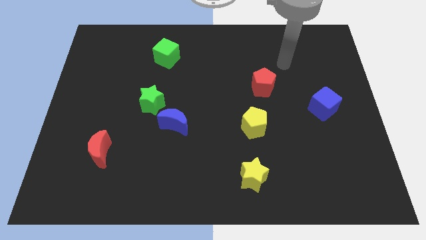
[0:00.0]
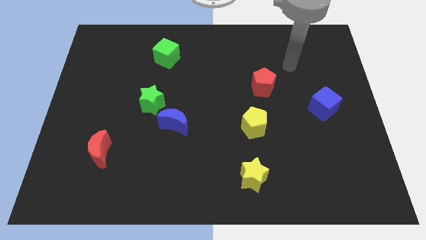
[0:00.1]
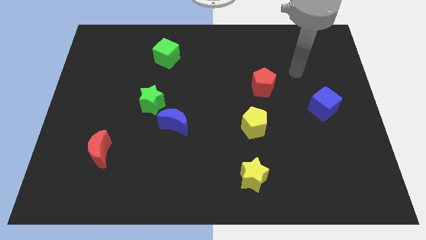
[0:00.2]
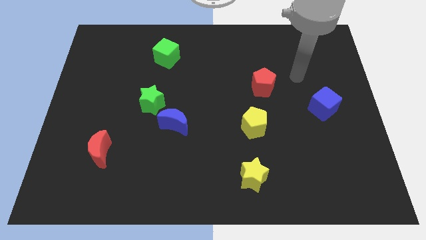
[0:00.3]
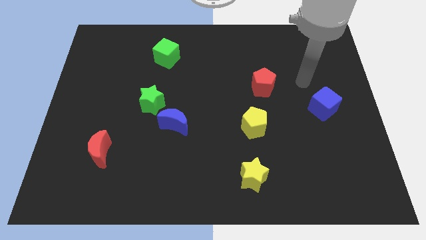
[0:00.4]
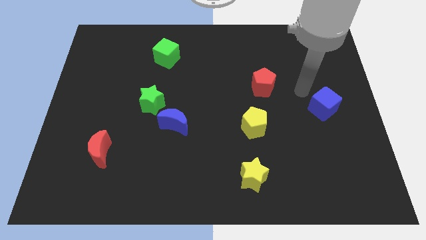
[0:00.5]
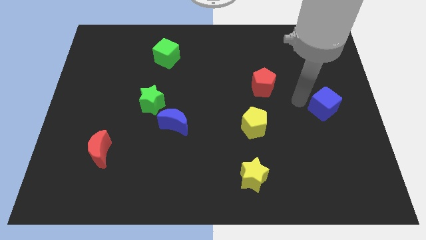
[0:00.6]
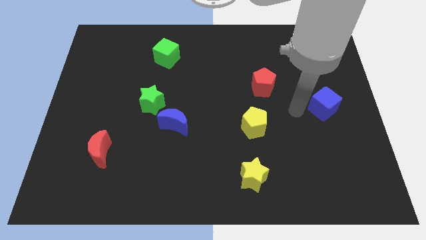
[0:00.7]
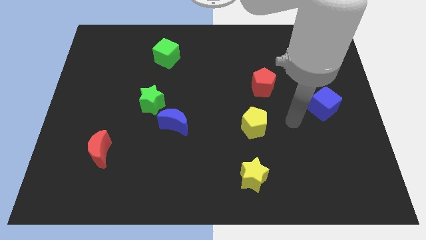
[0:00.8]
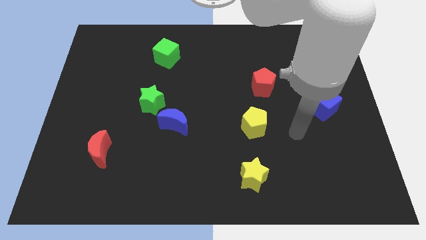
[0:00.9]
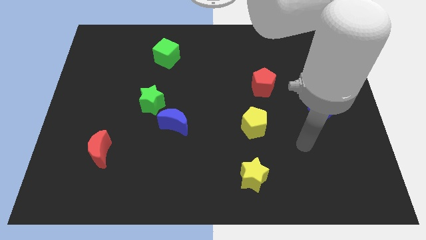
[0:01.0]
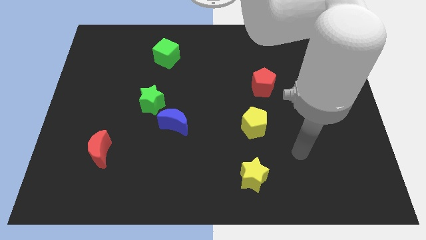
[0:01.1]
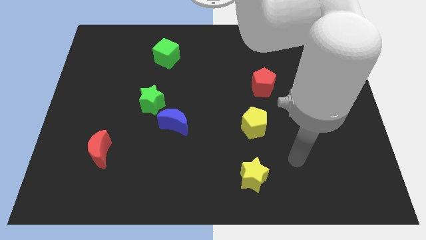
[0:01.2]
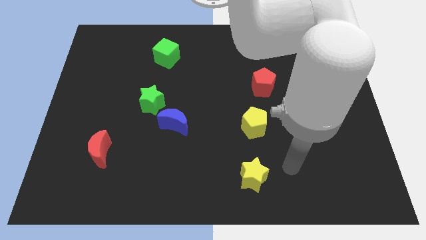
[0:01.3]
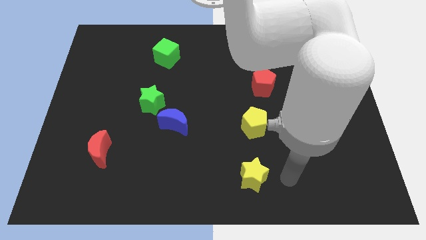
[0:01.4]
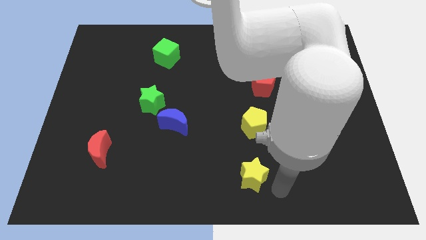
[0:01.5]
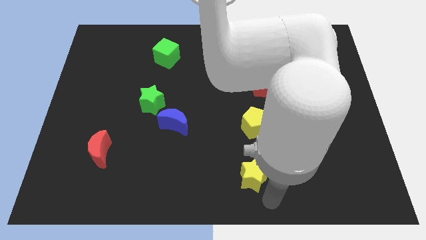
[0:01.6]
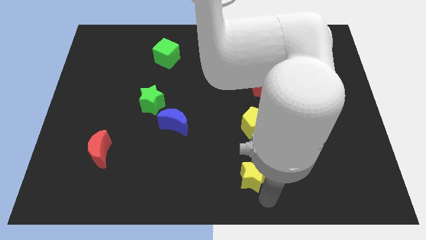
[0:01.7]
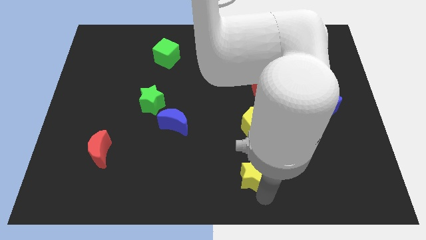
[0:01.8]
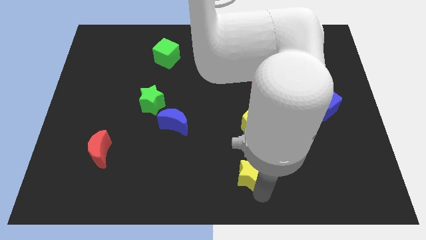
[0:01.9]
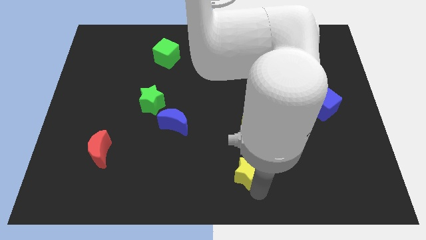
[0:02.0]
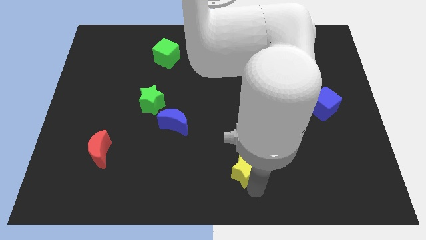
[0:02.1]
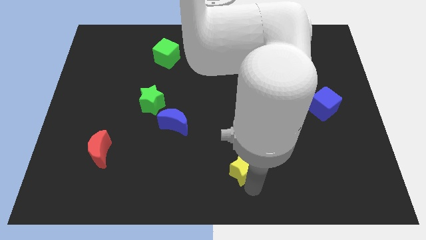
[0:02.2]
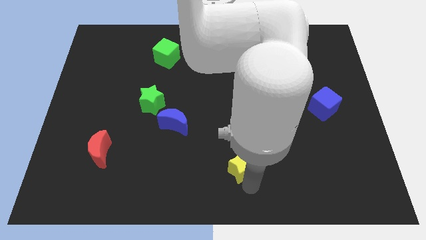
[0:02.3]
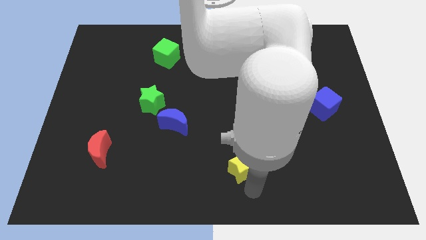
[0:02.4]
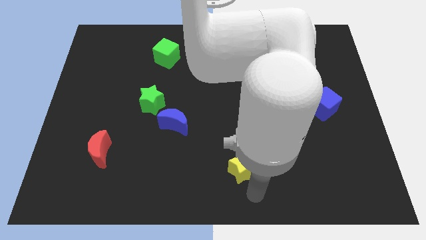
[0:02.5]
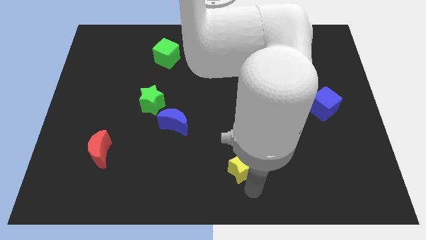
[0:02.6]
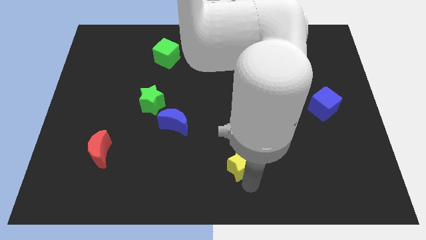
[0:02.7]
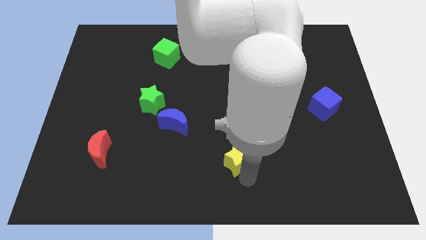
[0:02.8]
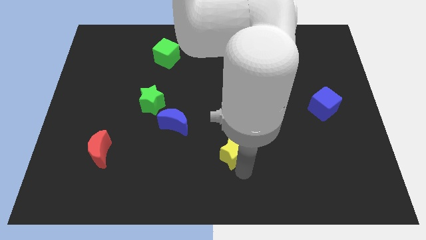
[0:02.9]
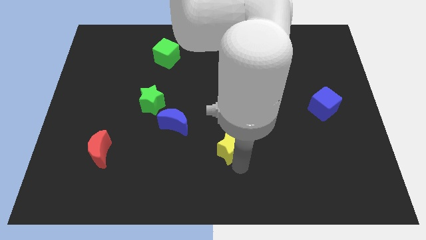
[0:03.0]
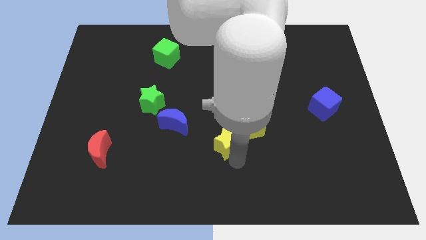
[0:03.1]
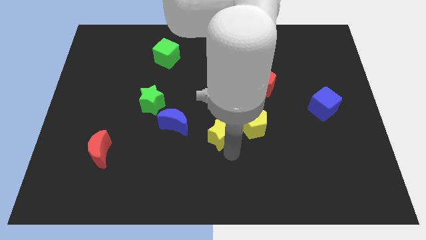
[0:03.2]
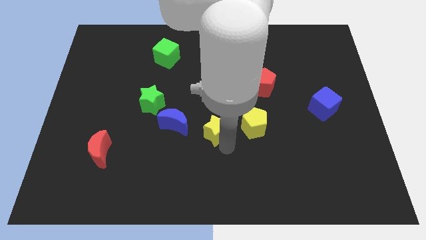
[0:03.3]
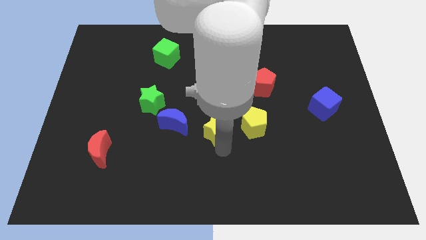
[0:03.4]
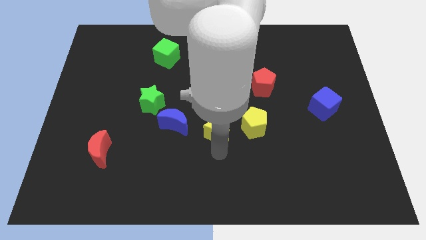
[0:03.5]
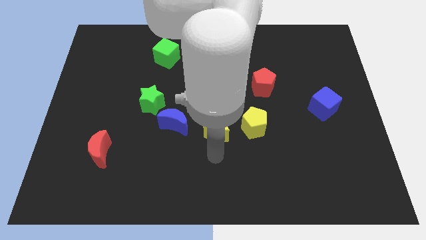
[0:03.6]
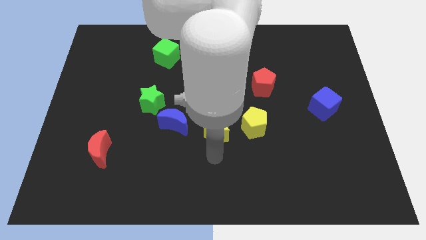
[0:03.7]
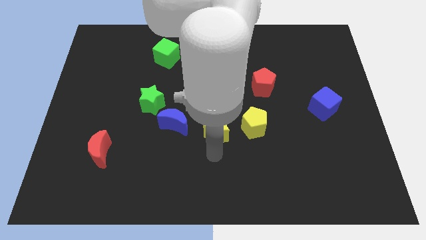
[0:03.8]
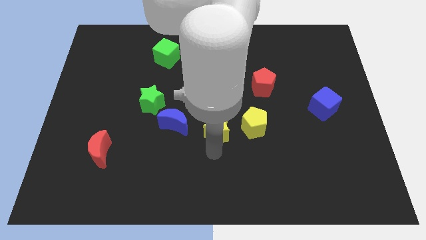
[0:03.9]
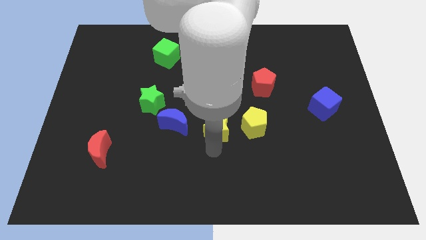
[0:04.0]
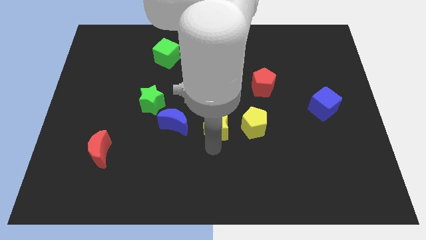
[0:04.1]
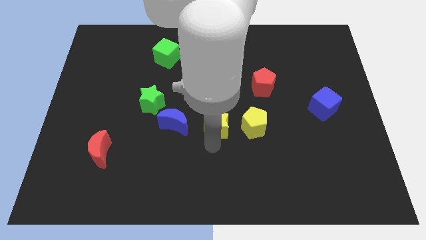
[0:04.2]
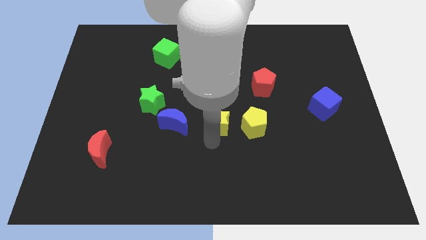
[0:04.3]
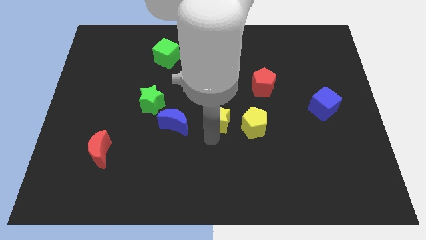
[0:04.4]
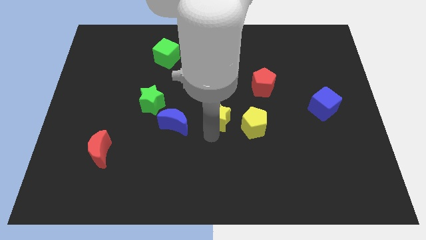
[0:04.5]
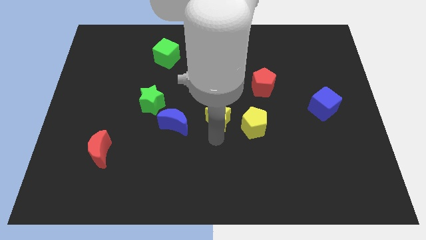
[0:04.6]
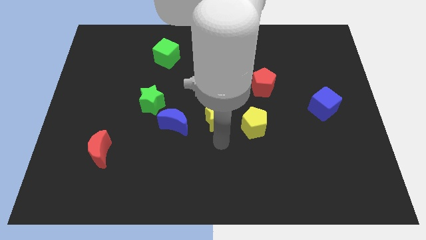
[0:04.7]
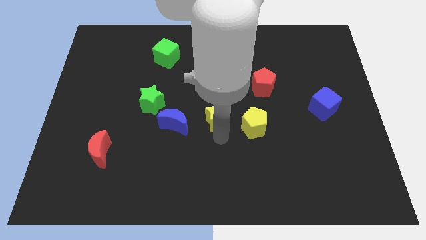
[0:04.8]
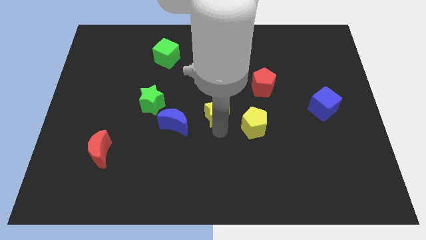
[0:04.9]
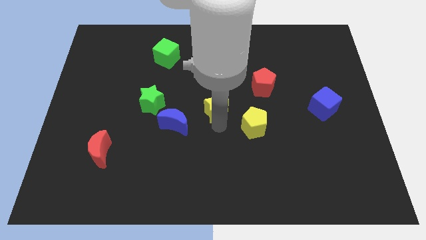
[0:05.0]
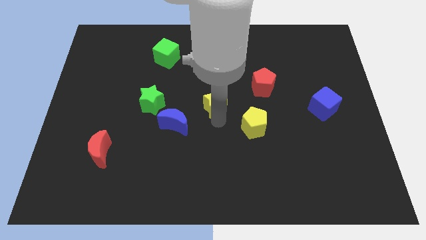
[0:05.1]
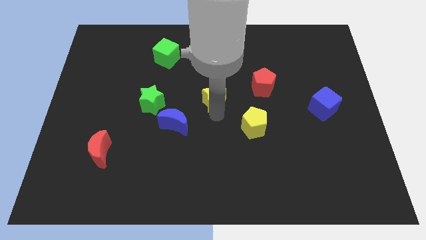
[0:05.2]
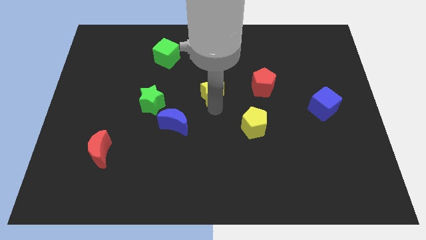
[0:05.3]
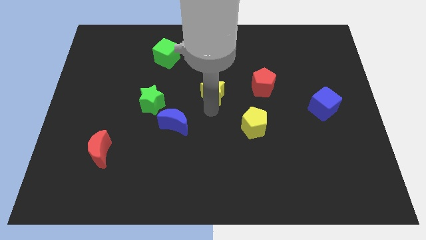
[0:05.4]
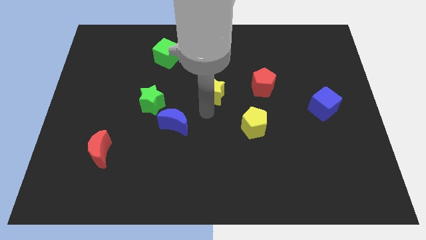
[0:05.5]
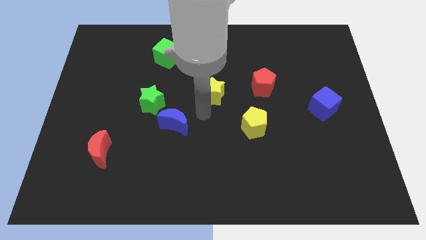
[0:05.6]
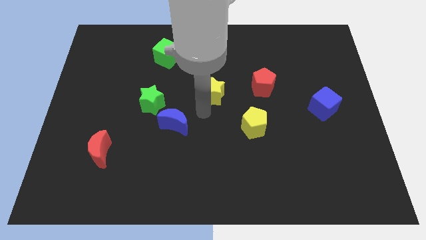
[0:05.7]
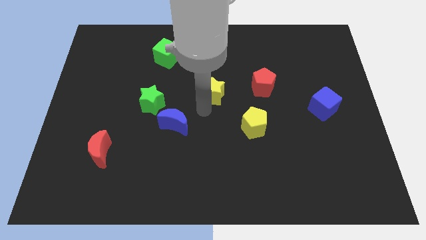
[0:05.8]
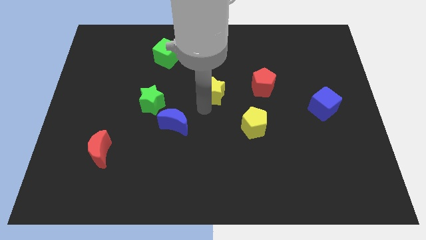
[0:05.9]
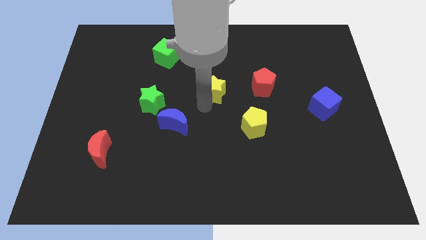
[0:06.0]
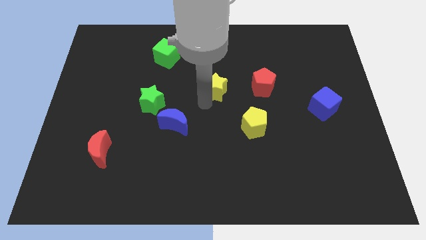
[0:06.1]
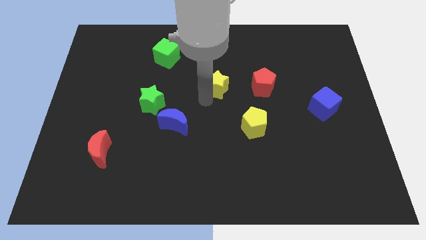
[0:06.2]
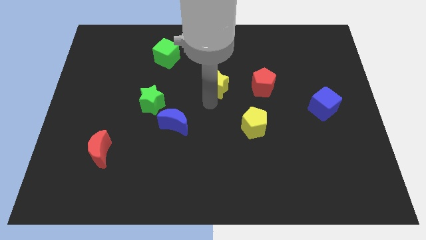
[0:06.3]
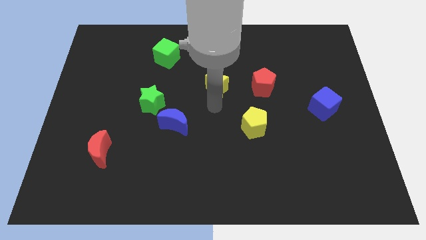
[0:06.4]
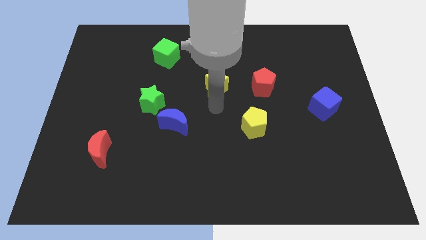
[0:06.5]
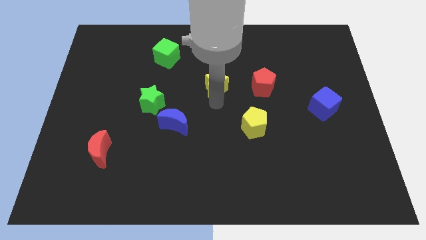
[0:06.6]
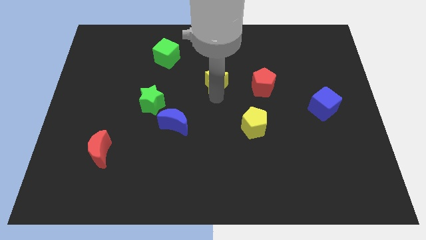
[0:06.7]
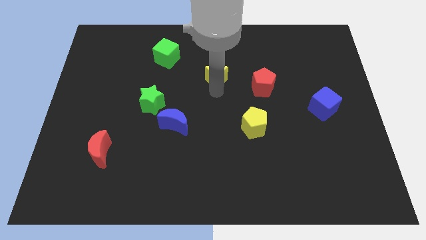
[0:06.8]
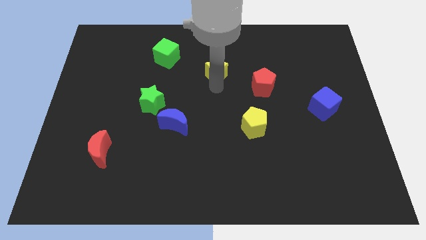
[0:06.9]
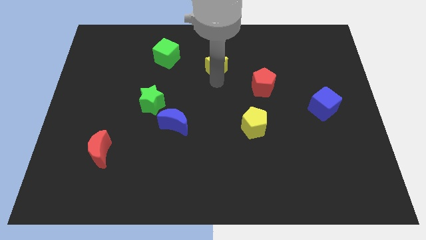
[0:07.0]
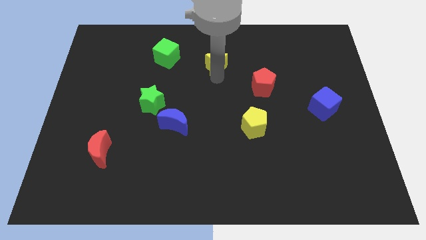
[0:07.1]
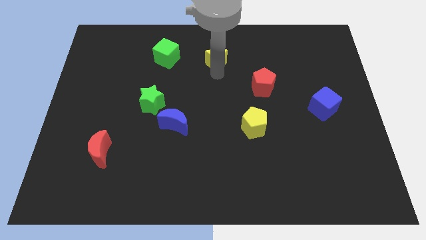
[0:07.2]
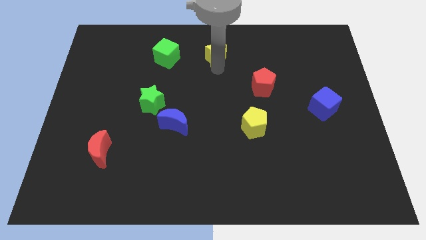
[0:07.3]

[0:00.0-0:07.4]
push the yellow star to the top side
